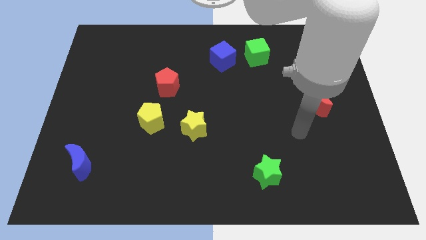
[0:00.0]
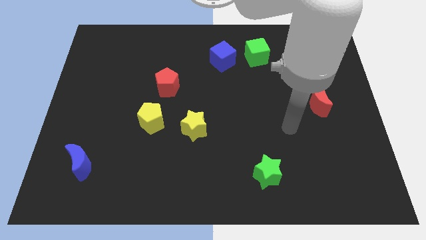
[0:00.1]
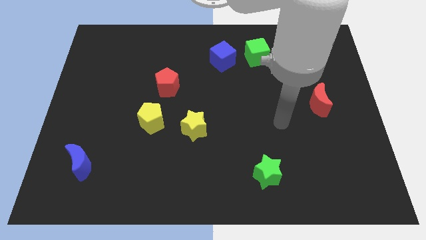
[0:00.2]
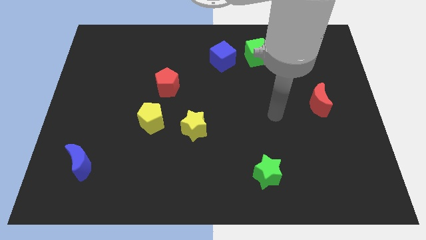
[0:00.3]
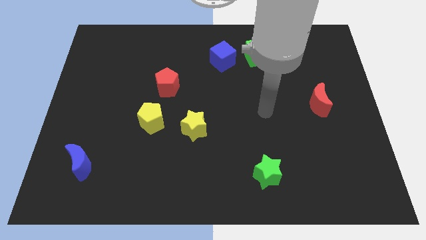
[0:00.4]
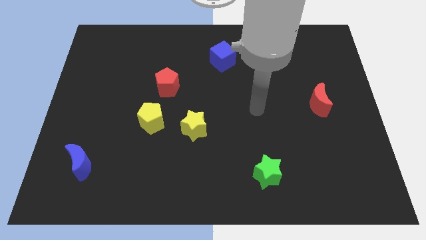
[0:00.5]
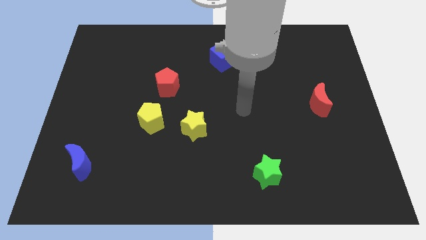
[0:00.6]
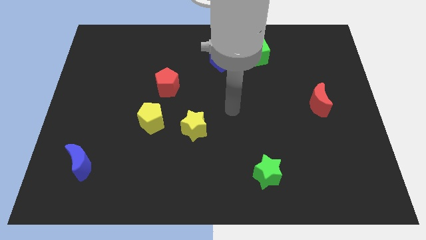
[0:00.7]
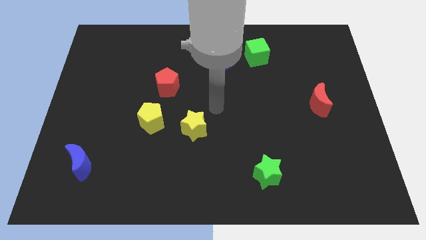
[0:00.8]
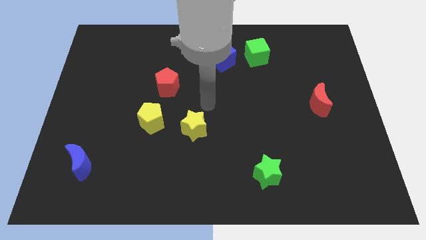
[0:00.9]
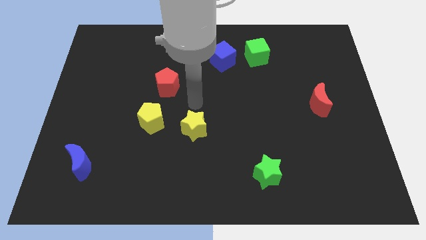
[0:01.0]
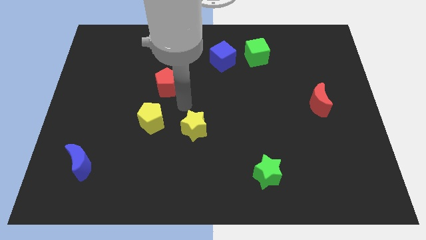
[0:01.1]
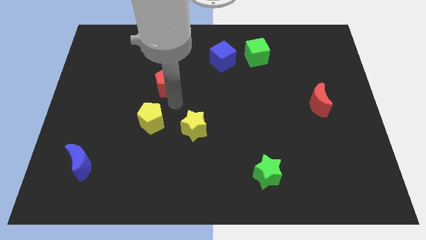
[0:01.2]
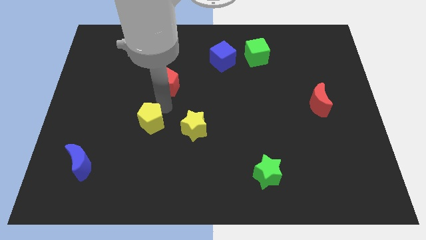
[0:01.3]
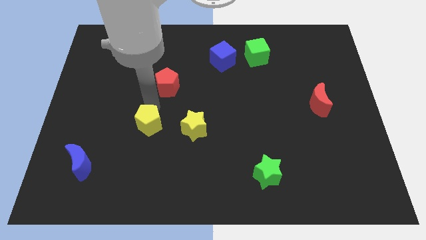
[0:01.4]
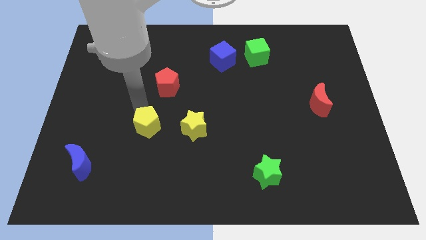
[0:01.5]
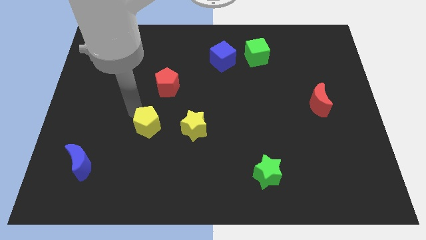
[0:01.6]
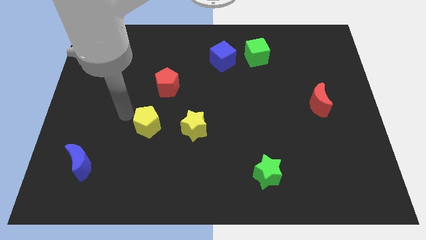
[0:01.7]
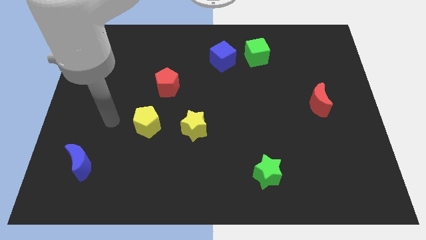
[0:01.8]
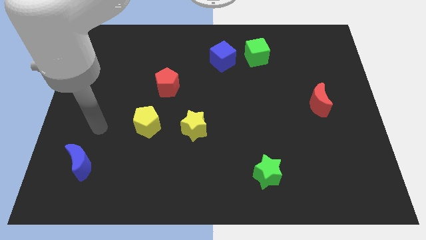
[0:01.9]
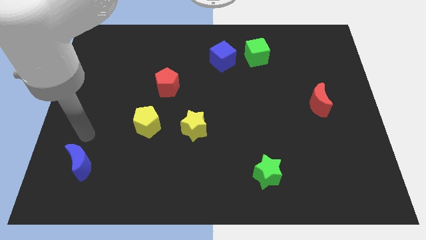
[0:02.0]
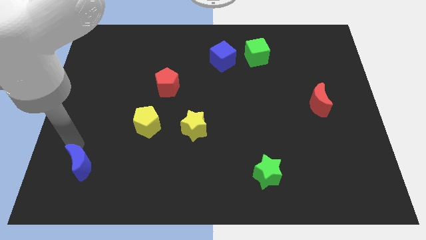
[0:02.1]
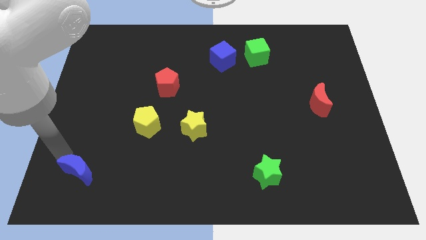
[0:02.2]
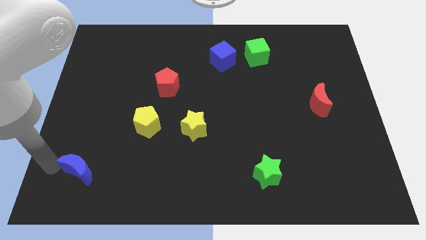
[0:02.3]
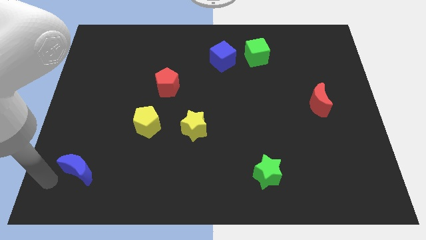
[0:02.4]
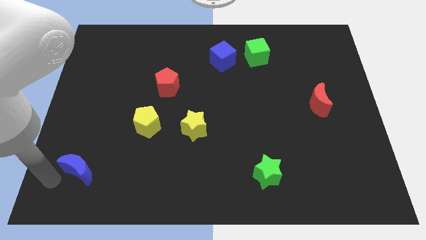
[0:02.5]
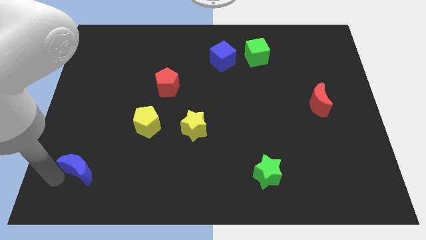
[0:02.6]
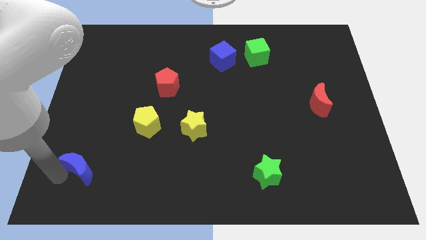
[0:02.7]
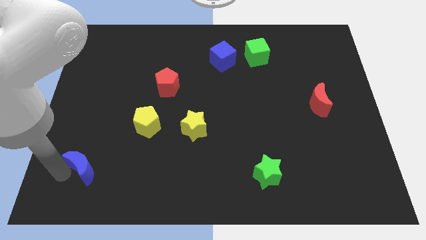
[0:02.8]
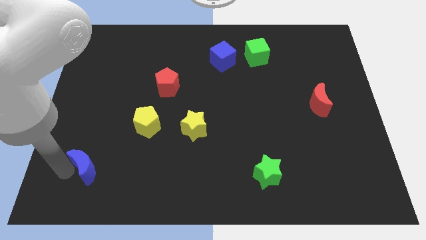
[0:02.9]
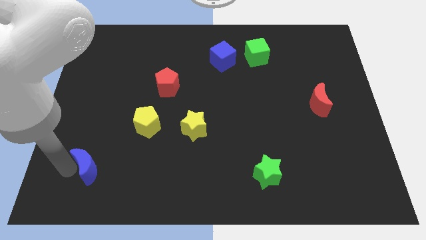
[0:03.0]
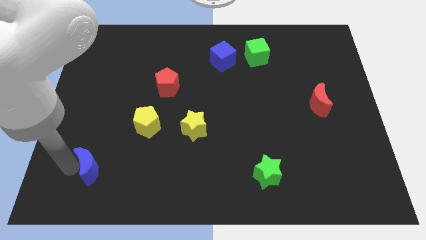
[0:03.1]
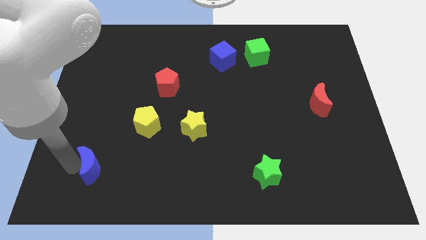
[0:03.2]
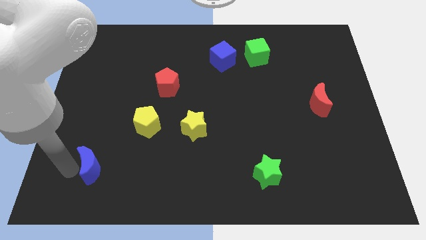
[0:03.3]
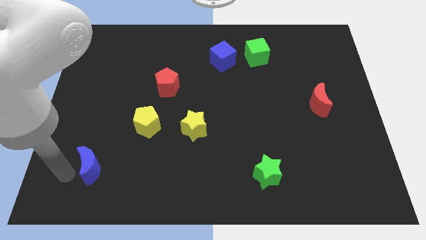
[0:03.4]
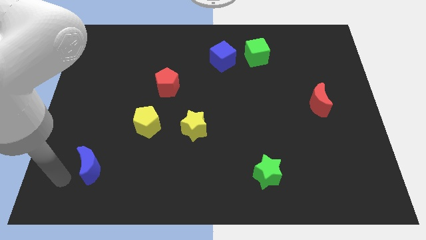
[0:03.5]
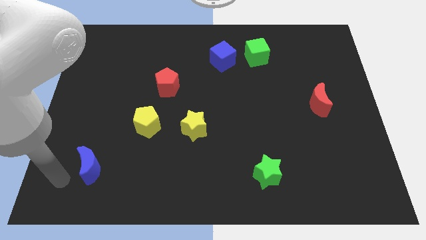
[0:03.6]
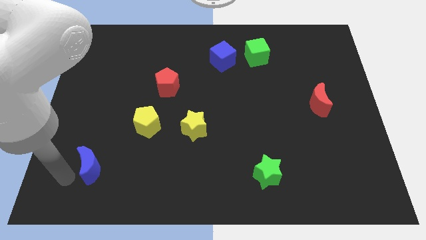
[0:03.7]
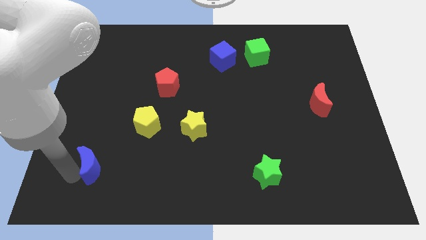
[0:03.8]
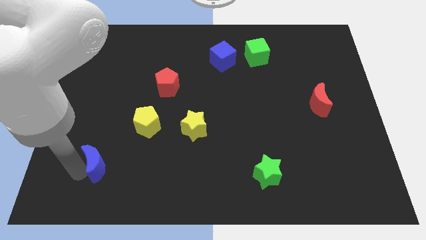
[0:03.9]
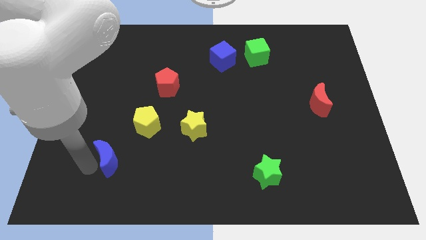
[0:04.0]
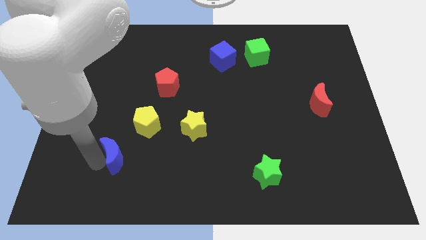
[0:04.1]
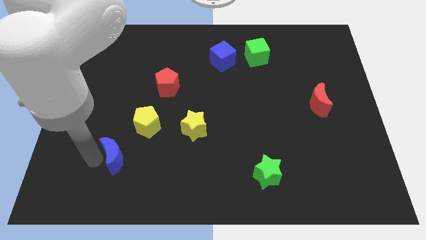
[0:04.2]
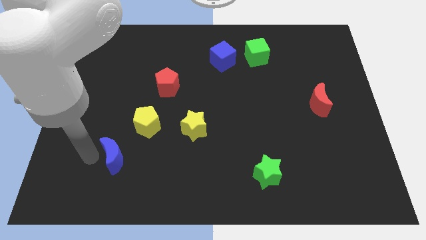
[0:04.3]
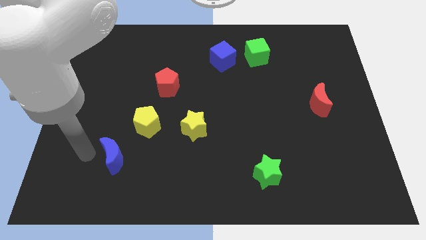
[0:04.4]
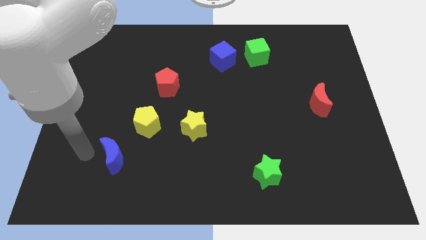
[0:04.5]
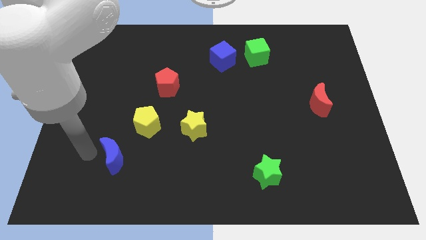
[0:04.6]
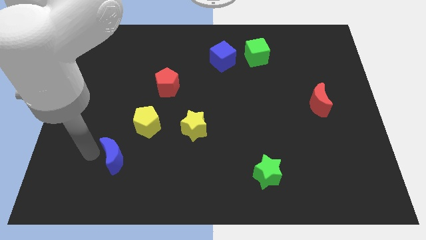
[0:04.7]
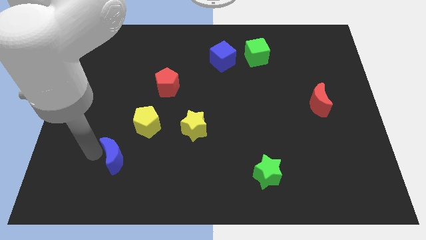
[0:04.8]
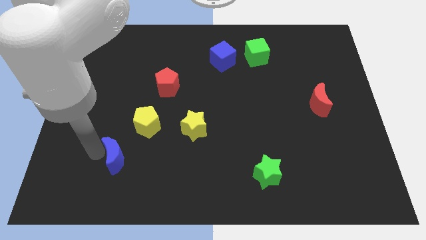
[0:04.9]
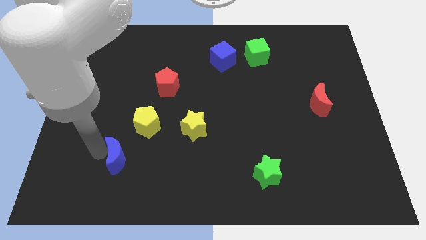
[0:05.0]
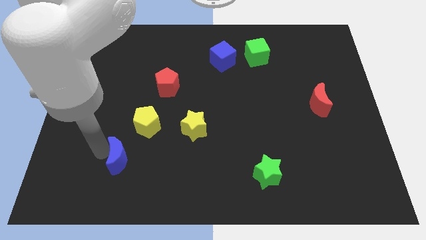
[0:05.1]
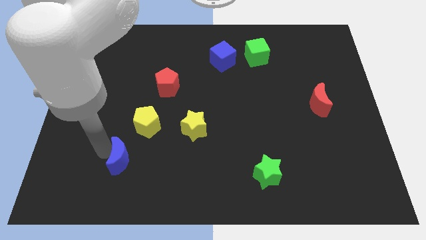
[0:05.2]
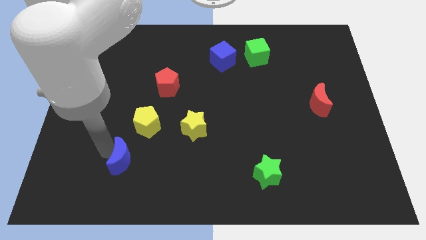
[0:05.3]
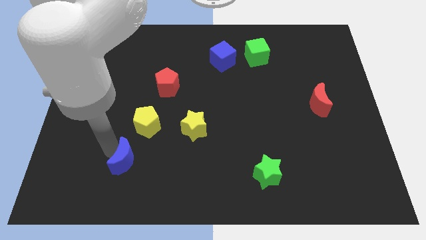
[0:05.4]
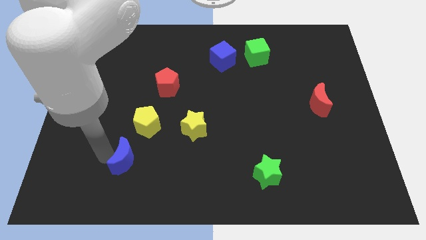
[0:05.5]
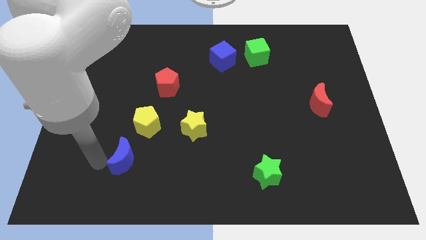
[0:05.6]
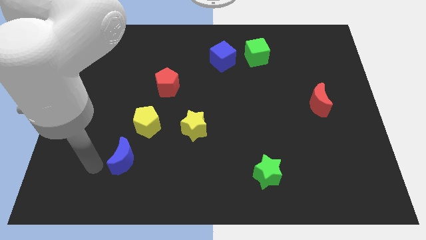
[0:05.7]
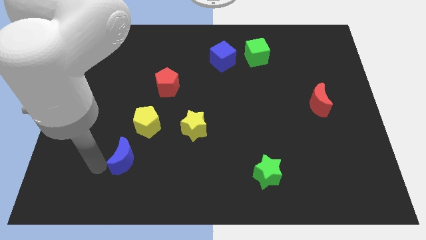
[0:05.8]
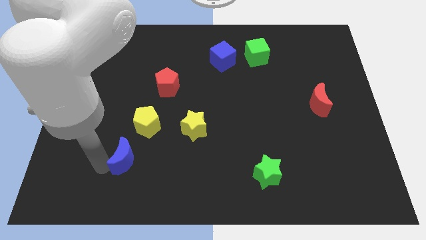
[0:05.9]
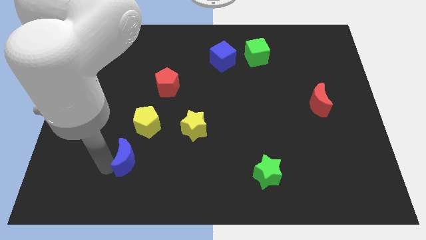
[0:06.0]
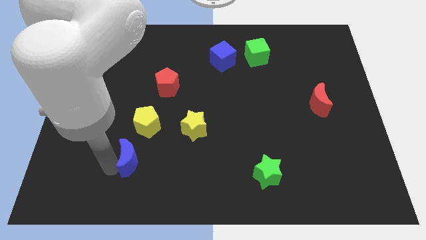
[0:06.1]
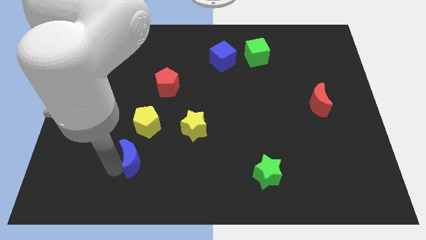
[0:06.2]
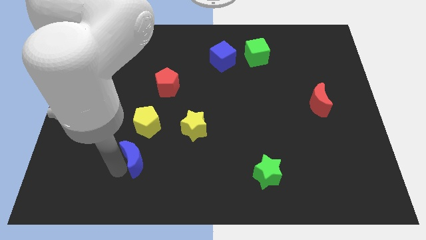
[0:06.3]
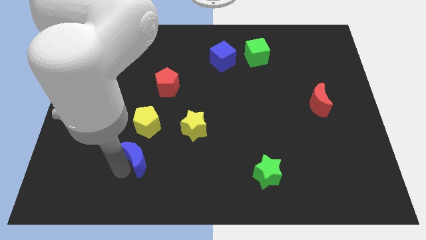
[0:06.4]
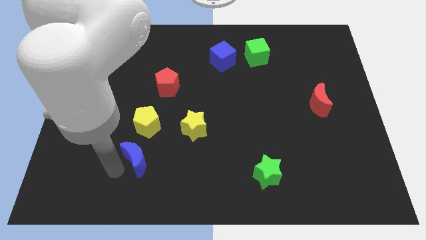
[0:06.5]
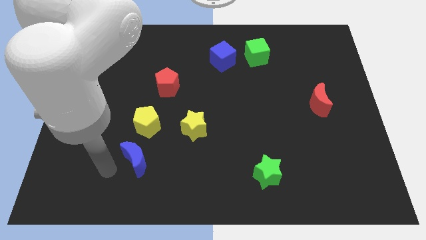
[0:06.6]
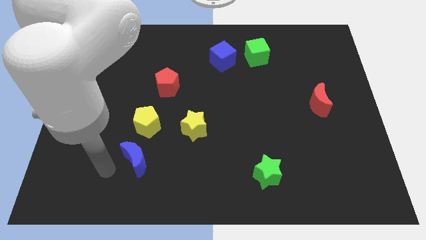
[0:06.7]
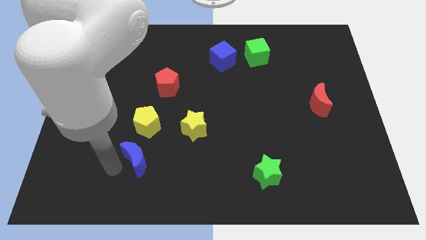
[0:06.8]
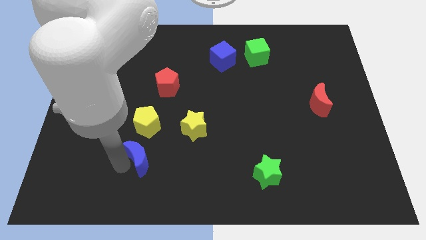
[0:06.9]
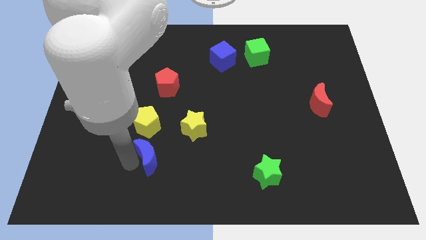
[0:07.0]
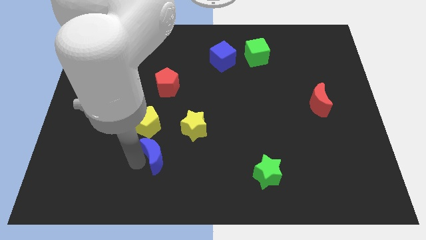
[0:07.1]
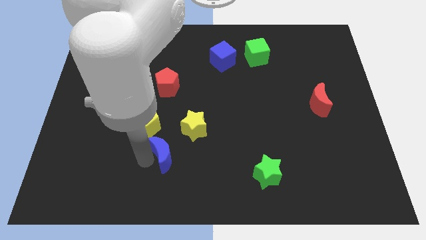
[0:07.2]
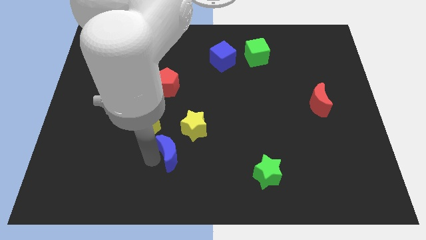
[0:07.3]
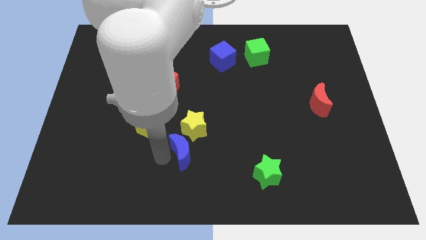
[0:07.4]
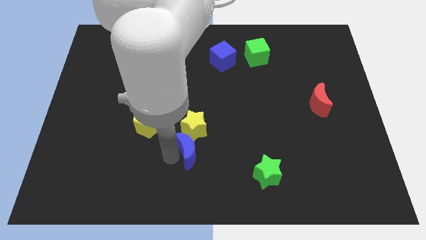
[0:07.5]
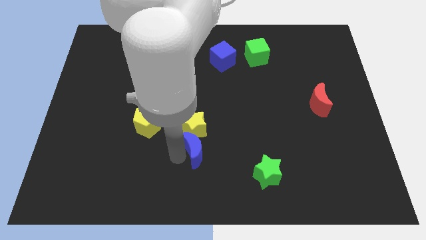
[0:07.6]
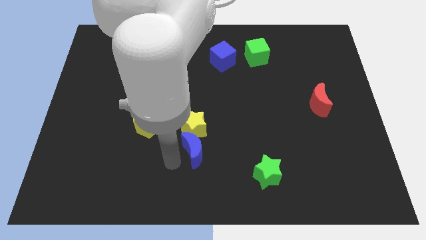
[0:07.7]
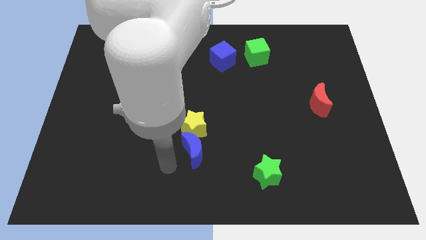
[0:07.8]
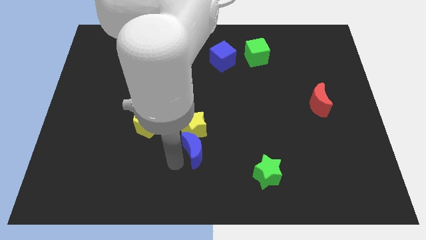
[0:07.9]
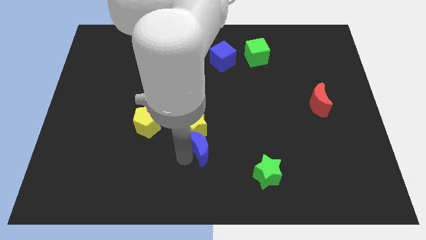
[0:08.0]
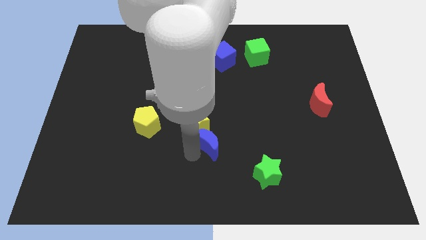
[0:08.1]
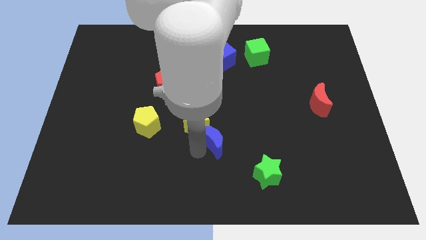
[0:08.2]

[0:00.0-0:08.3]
put the blue moon right of the yellow star
